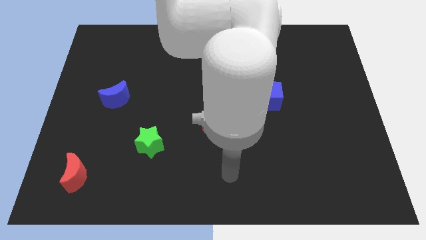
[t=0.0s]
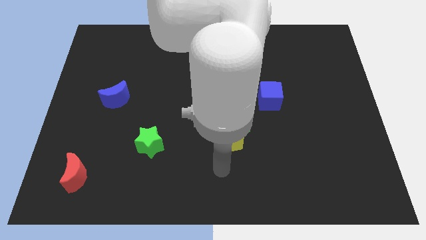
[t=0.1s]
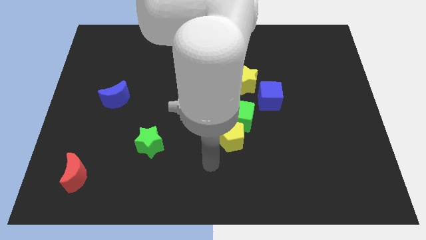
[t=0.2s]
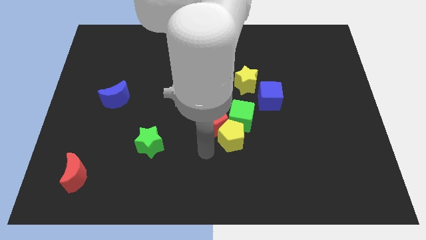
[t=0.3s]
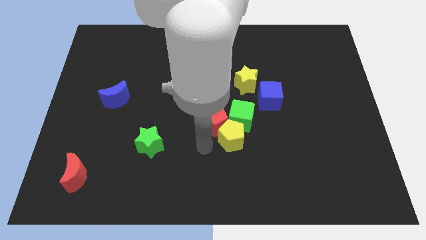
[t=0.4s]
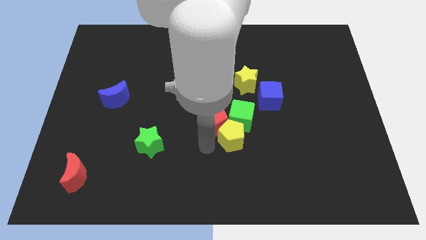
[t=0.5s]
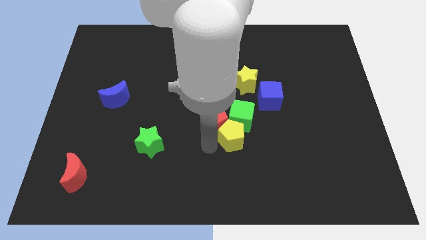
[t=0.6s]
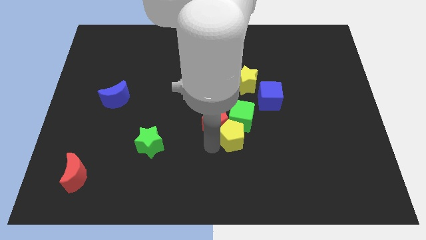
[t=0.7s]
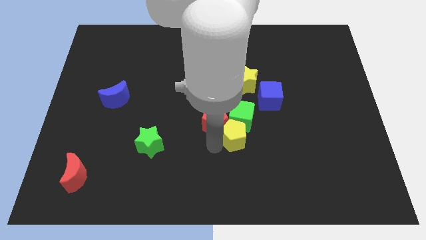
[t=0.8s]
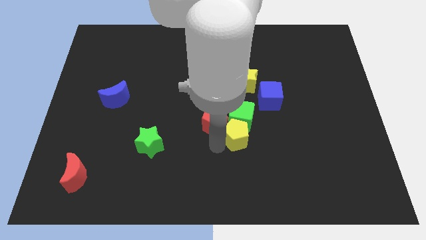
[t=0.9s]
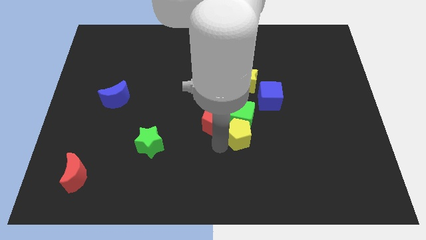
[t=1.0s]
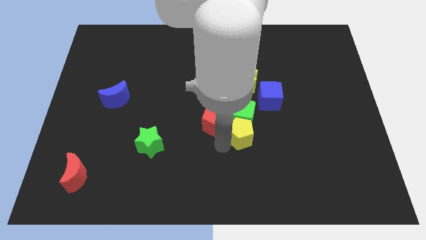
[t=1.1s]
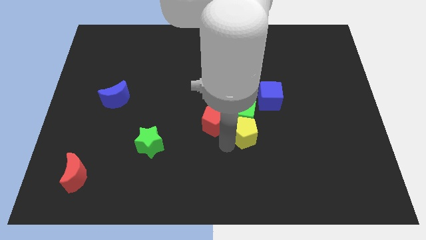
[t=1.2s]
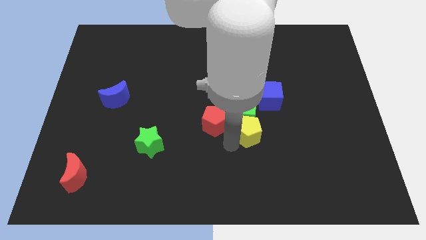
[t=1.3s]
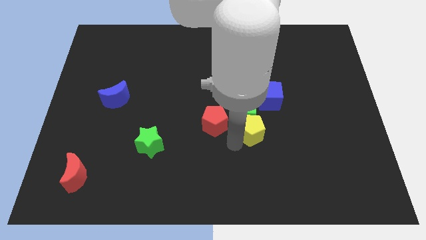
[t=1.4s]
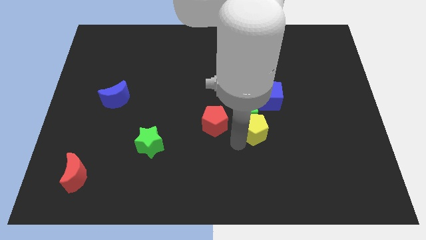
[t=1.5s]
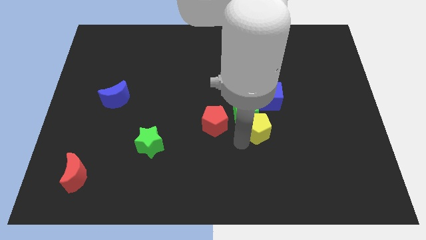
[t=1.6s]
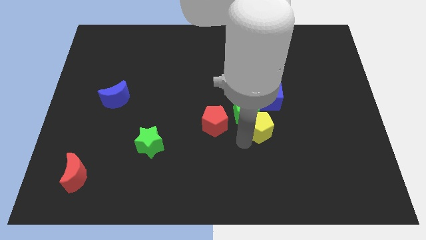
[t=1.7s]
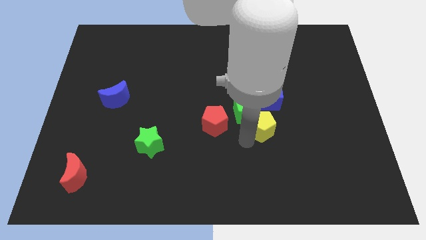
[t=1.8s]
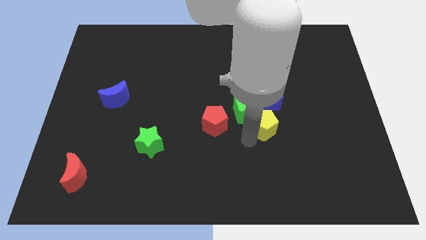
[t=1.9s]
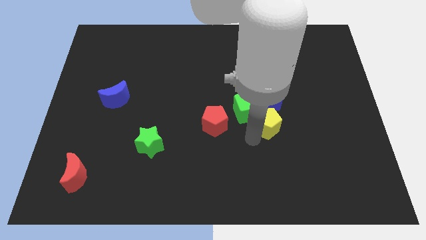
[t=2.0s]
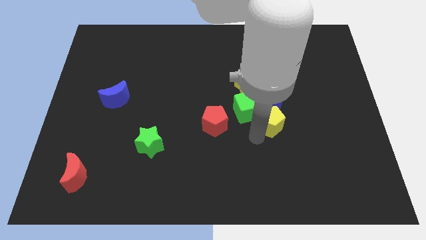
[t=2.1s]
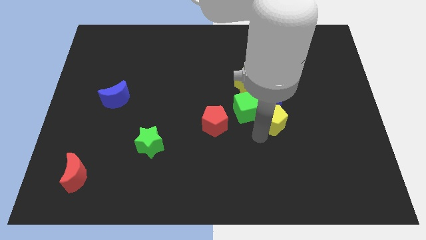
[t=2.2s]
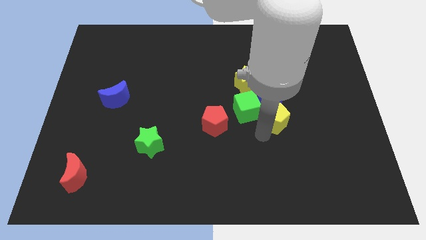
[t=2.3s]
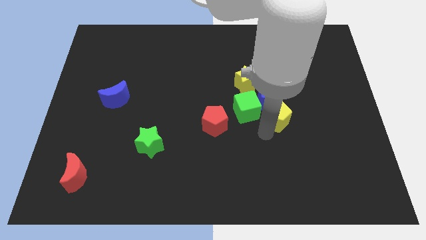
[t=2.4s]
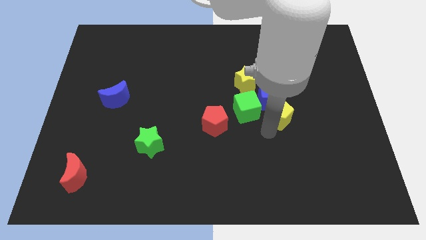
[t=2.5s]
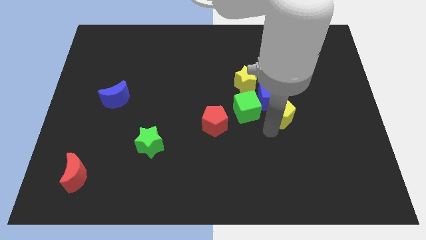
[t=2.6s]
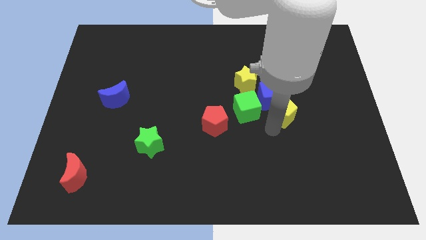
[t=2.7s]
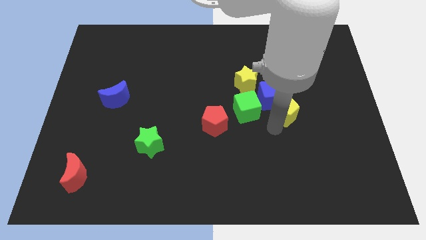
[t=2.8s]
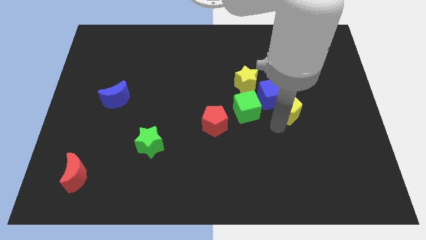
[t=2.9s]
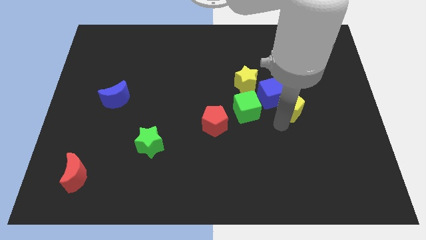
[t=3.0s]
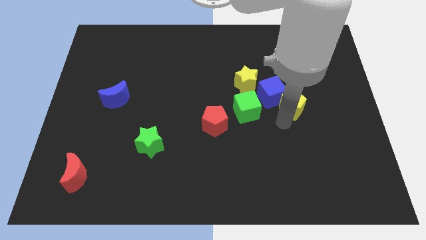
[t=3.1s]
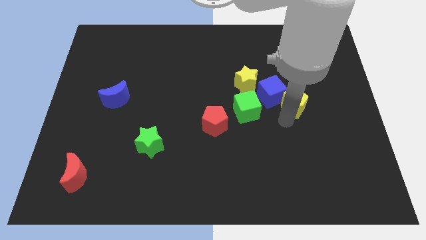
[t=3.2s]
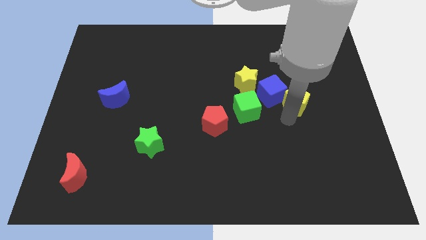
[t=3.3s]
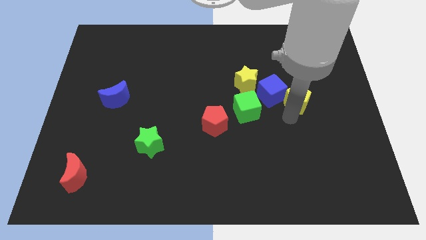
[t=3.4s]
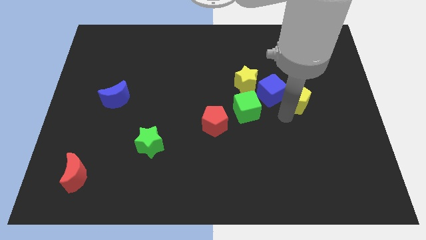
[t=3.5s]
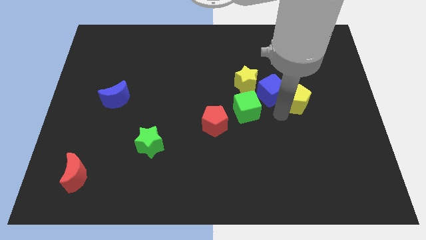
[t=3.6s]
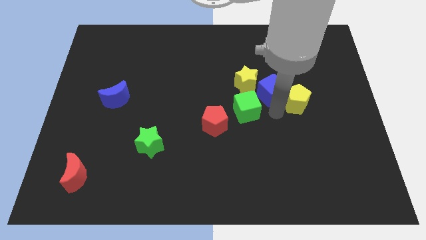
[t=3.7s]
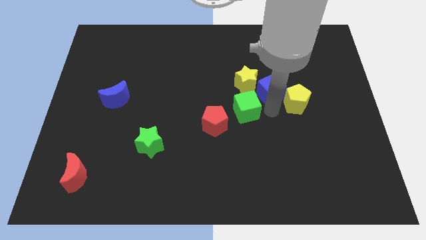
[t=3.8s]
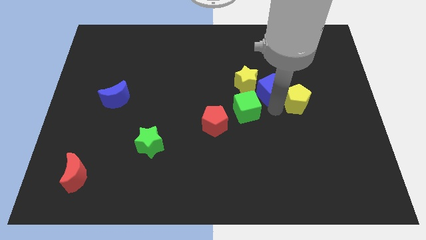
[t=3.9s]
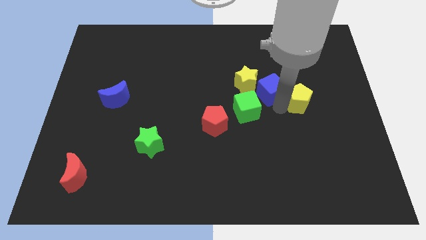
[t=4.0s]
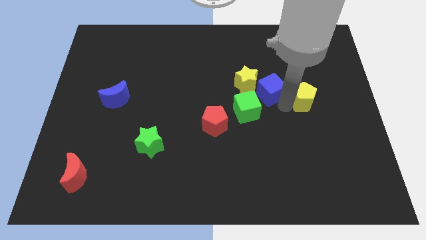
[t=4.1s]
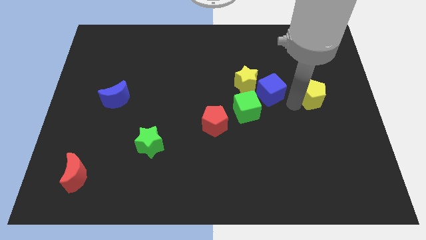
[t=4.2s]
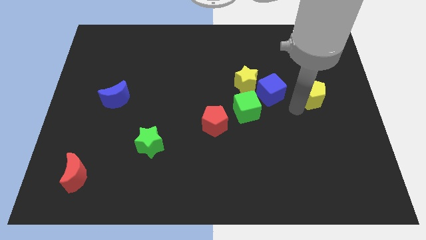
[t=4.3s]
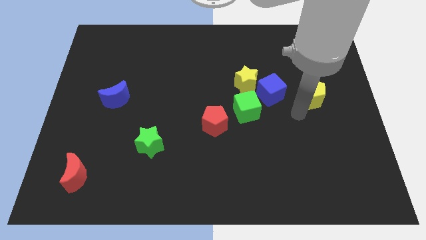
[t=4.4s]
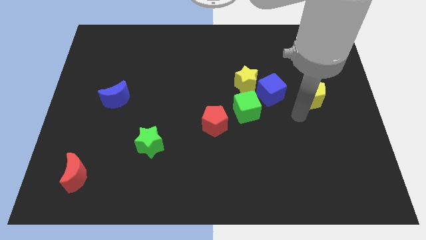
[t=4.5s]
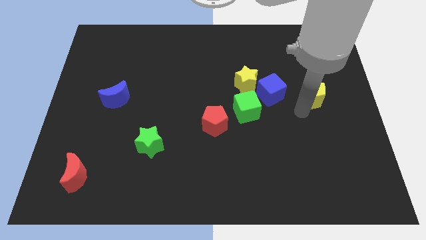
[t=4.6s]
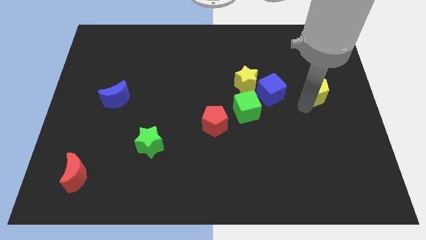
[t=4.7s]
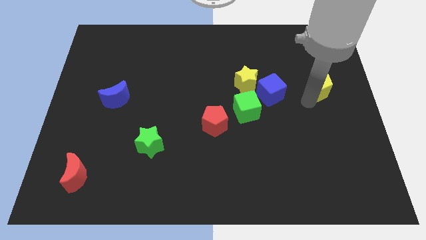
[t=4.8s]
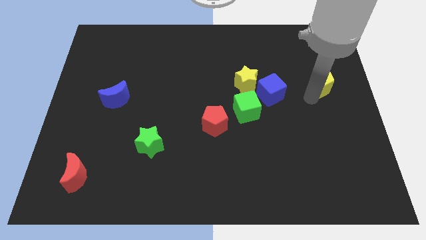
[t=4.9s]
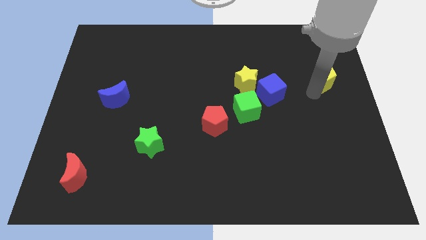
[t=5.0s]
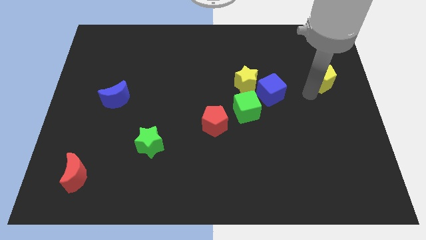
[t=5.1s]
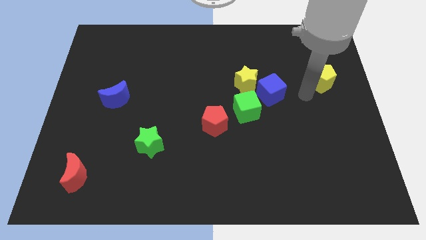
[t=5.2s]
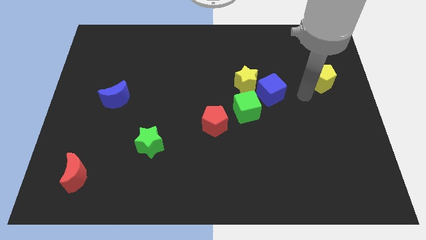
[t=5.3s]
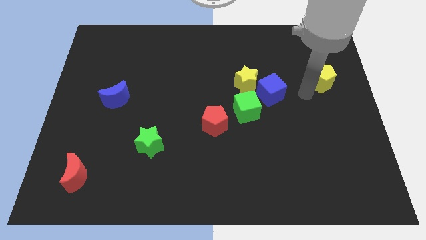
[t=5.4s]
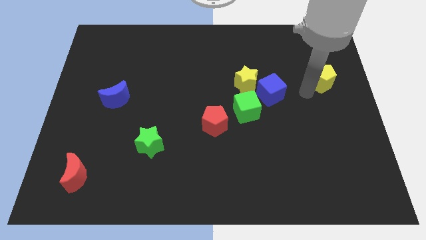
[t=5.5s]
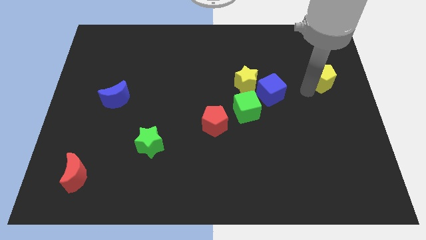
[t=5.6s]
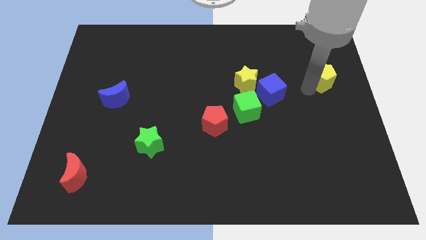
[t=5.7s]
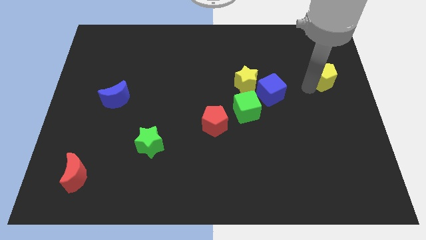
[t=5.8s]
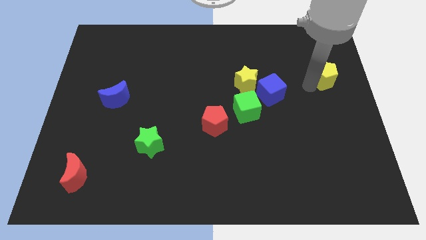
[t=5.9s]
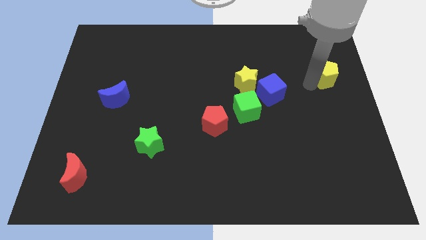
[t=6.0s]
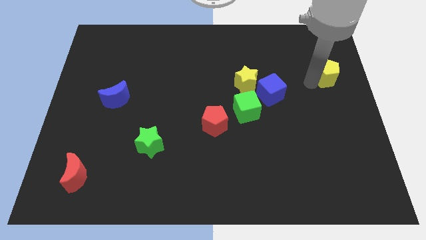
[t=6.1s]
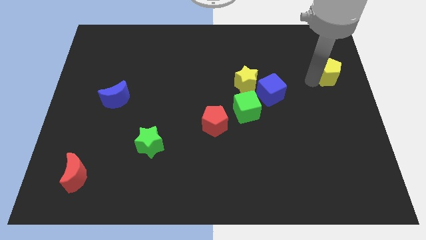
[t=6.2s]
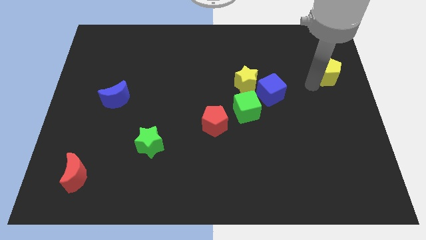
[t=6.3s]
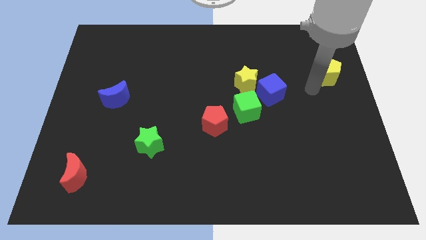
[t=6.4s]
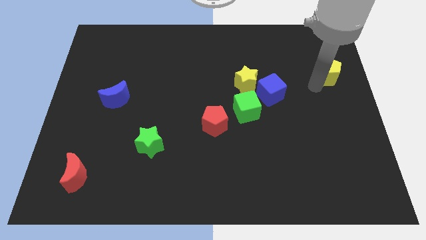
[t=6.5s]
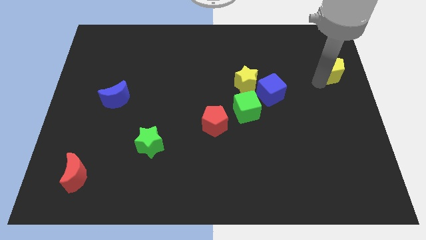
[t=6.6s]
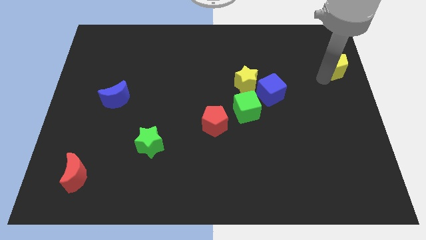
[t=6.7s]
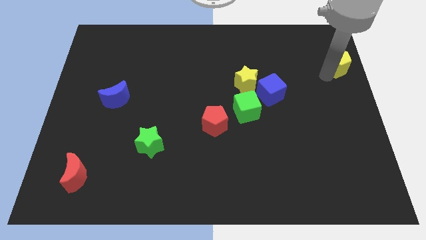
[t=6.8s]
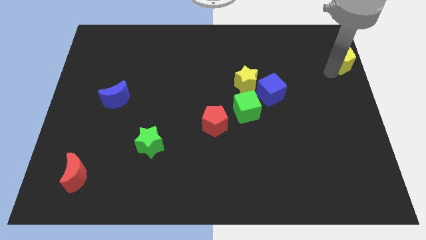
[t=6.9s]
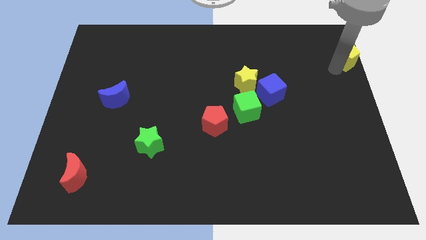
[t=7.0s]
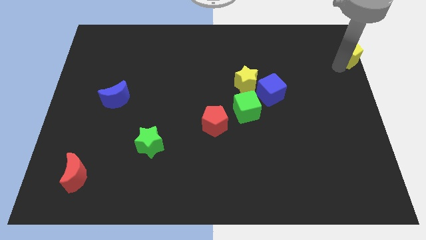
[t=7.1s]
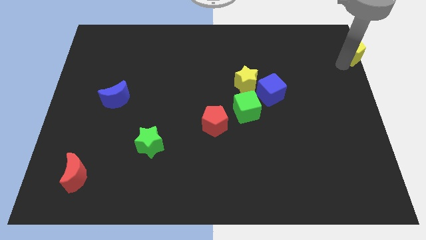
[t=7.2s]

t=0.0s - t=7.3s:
push the yellow pentagon to the top right of the board
